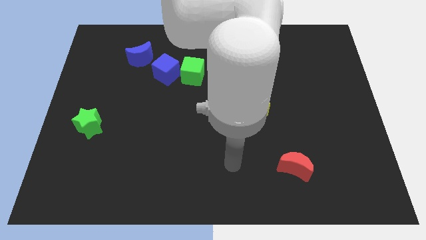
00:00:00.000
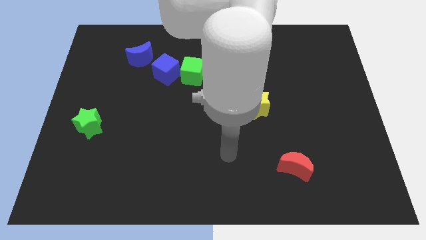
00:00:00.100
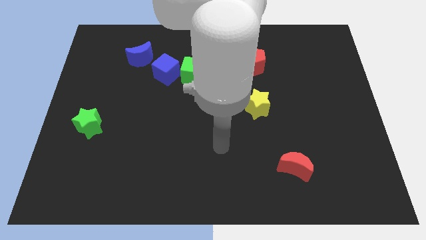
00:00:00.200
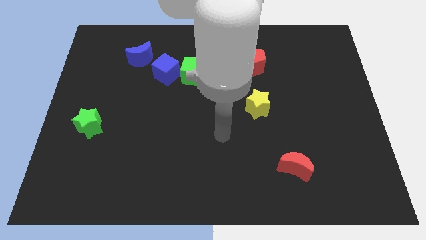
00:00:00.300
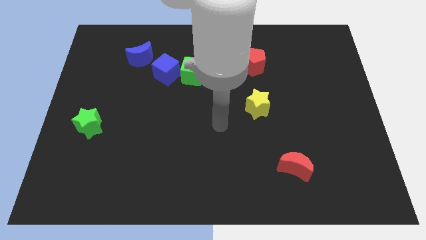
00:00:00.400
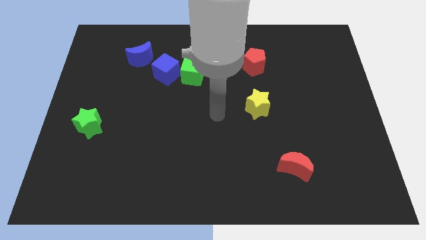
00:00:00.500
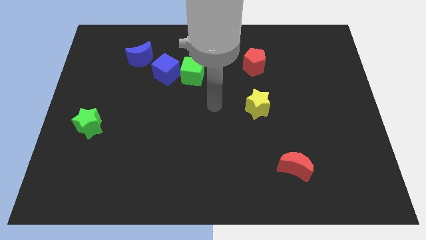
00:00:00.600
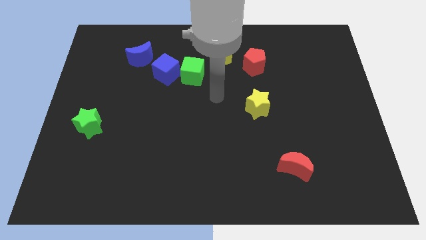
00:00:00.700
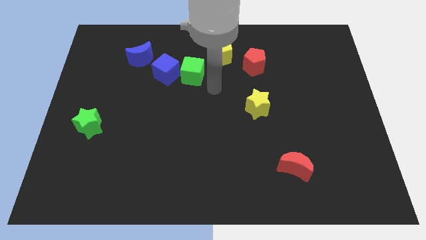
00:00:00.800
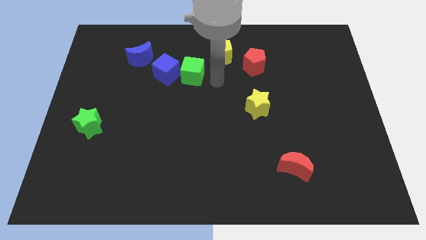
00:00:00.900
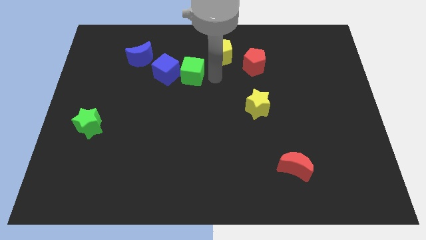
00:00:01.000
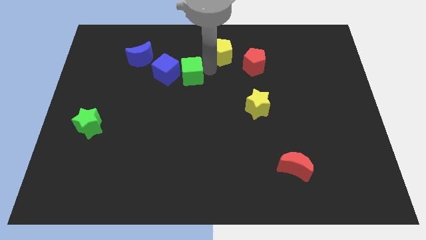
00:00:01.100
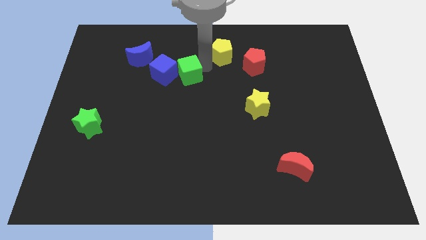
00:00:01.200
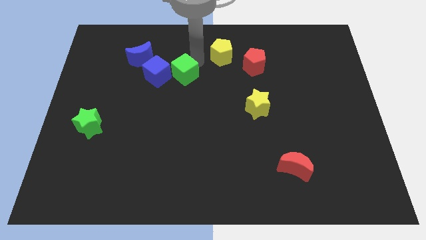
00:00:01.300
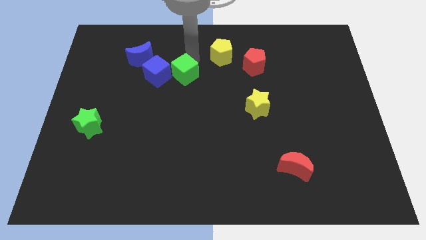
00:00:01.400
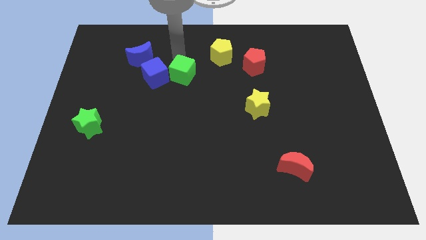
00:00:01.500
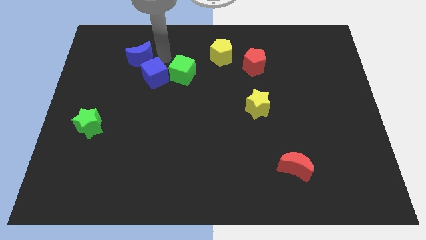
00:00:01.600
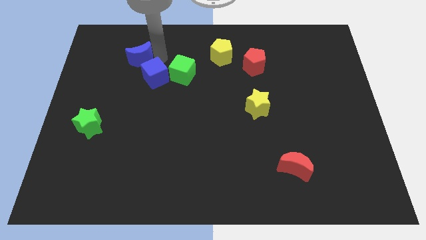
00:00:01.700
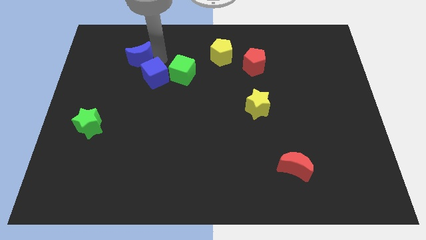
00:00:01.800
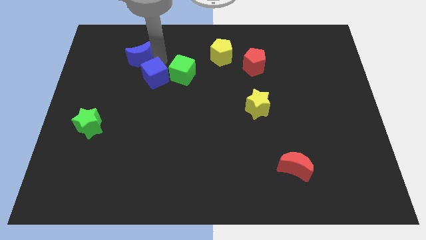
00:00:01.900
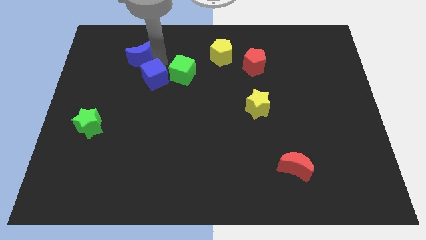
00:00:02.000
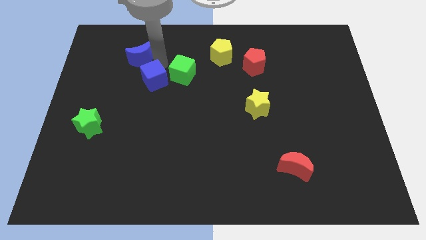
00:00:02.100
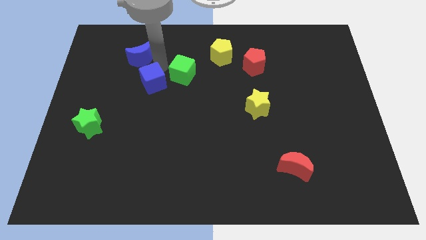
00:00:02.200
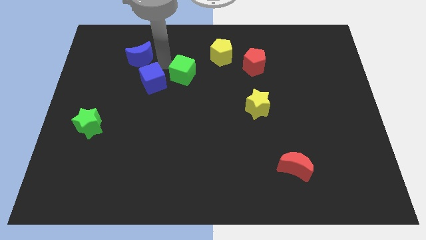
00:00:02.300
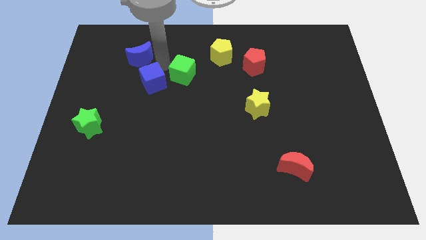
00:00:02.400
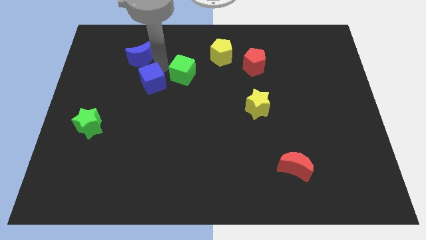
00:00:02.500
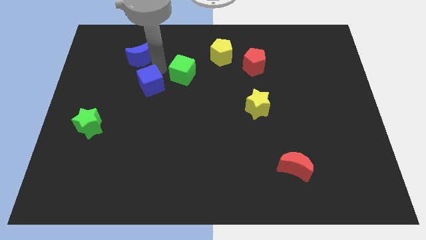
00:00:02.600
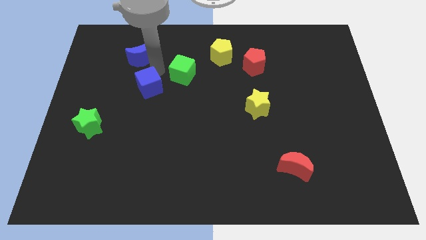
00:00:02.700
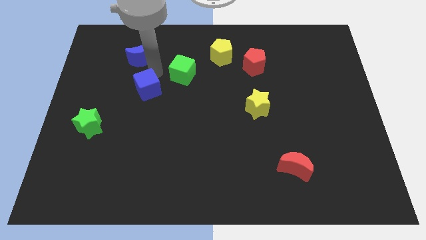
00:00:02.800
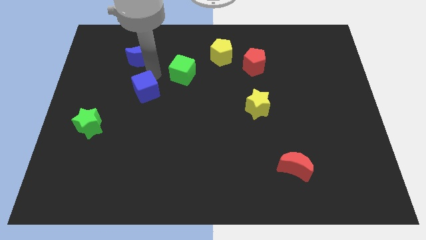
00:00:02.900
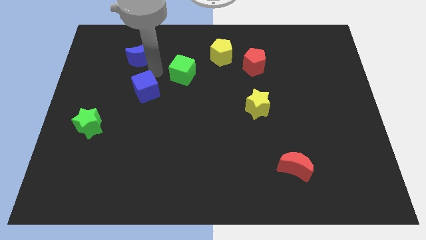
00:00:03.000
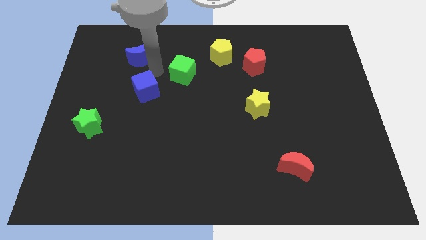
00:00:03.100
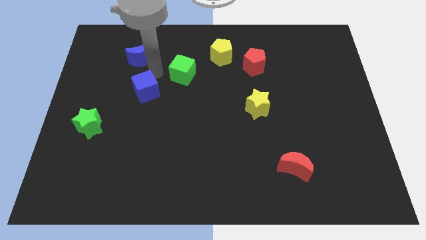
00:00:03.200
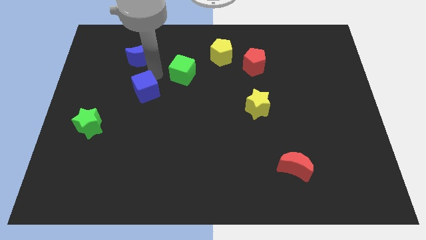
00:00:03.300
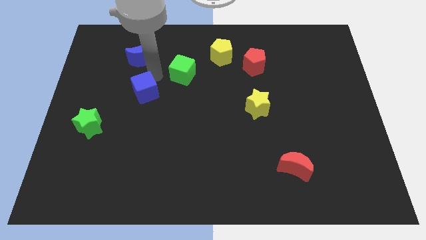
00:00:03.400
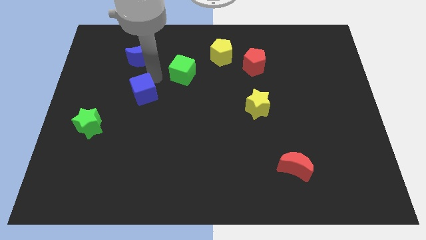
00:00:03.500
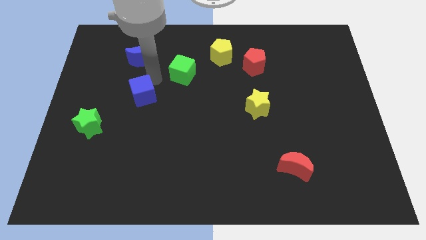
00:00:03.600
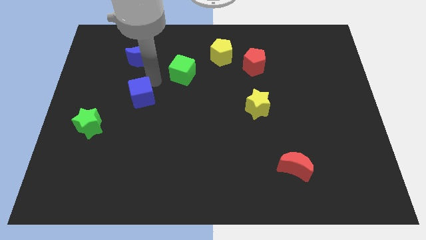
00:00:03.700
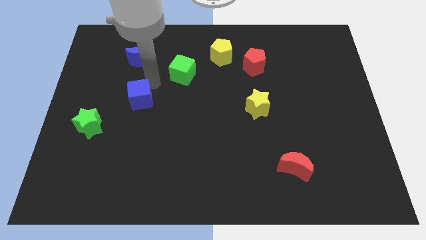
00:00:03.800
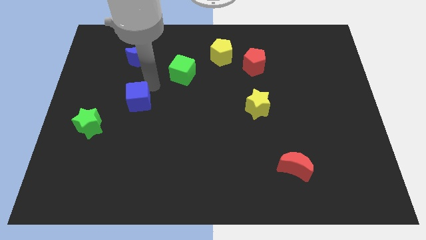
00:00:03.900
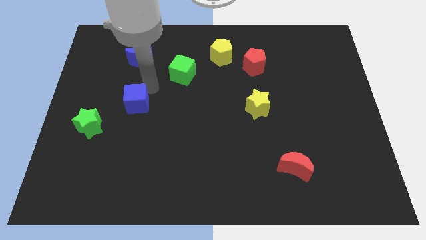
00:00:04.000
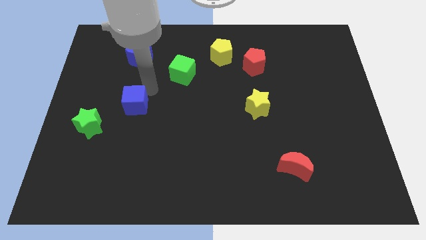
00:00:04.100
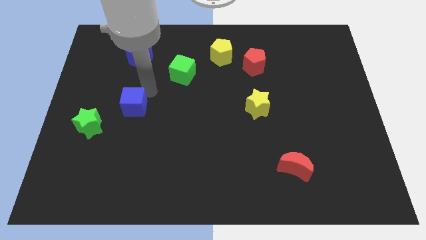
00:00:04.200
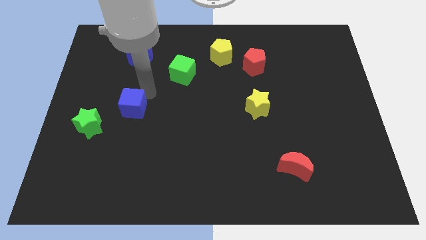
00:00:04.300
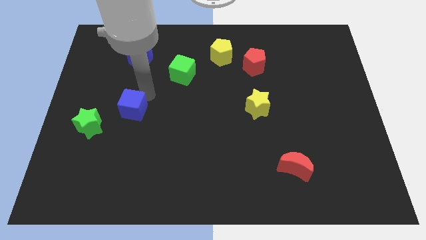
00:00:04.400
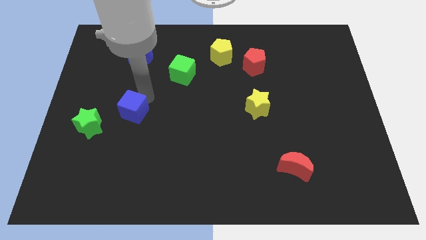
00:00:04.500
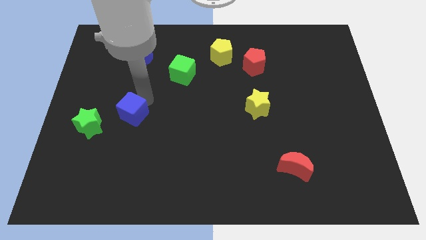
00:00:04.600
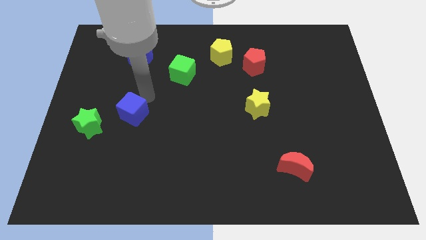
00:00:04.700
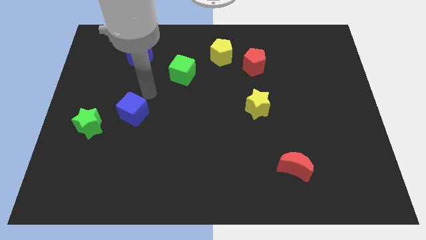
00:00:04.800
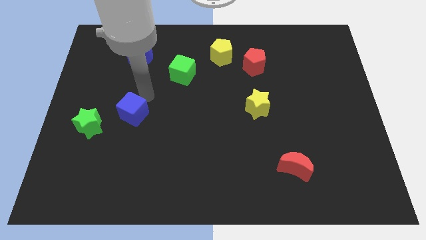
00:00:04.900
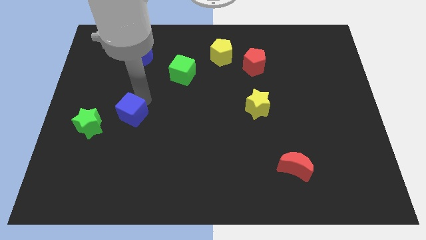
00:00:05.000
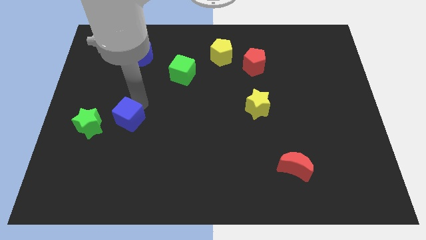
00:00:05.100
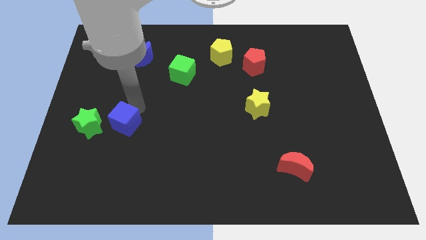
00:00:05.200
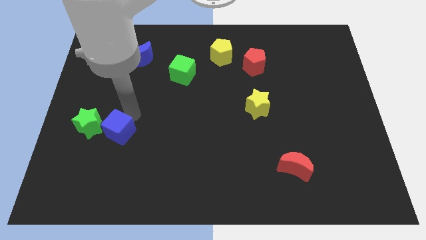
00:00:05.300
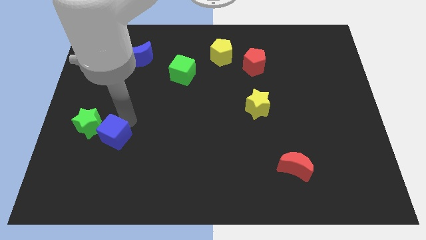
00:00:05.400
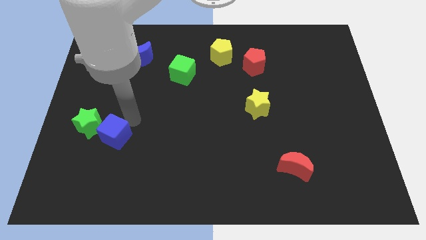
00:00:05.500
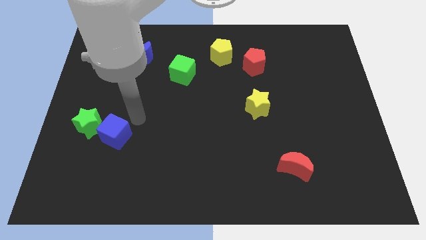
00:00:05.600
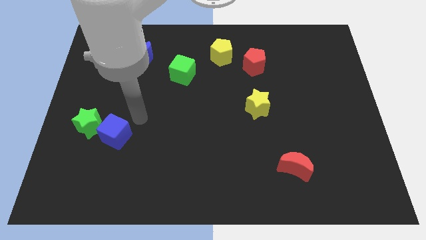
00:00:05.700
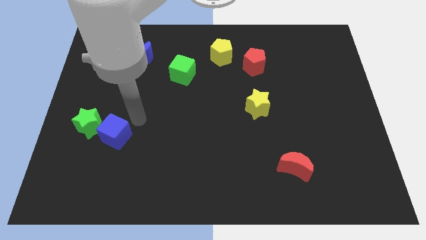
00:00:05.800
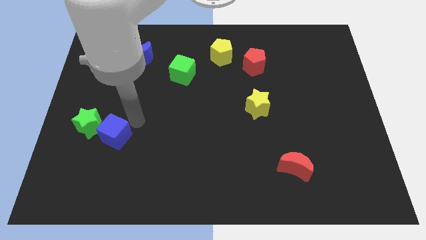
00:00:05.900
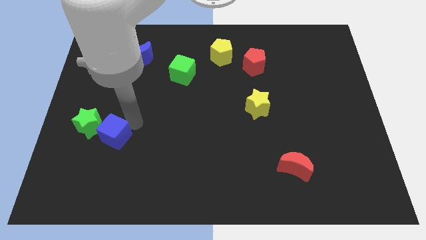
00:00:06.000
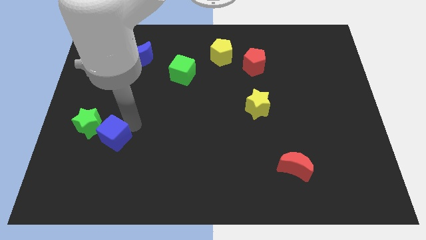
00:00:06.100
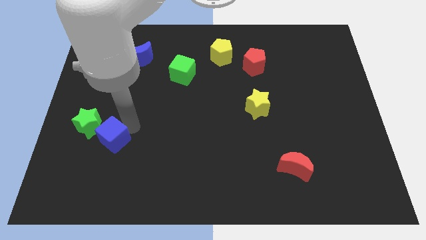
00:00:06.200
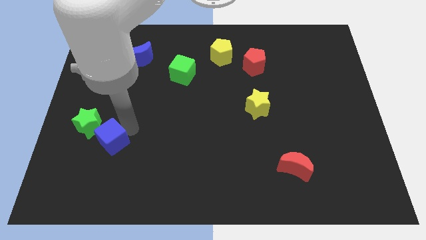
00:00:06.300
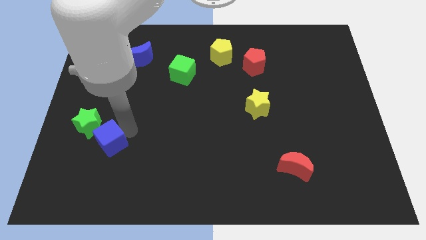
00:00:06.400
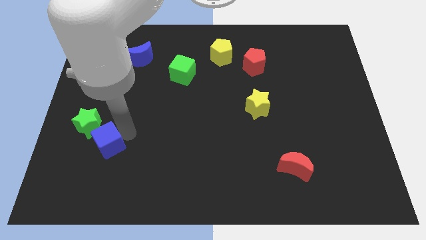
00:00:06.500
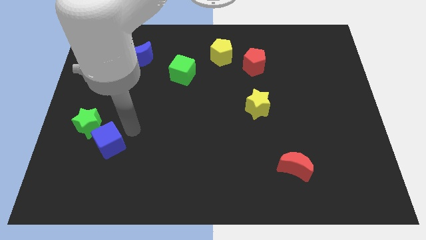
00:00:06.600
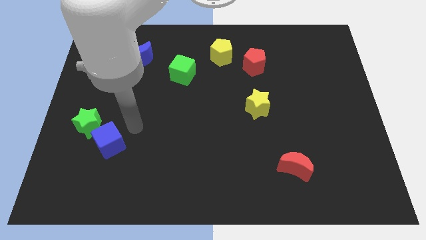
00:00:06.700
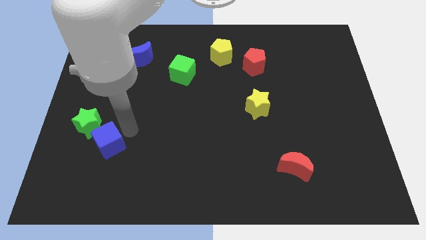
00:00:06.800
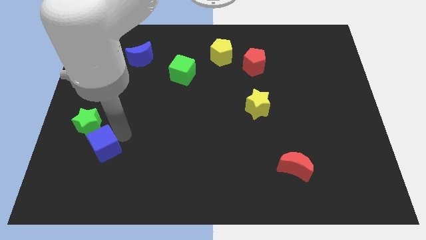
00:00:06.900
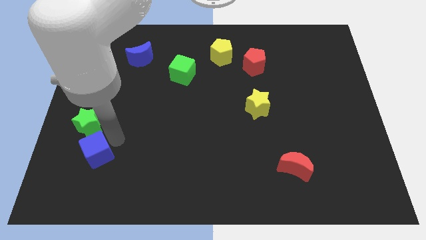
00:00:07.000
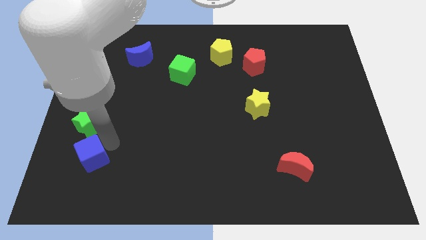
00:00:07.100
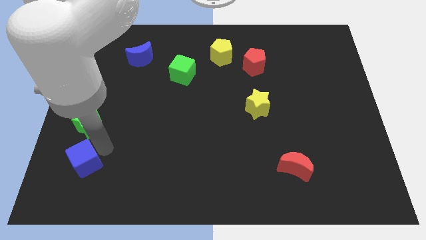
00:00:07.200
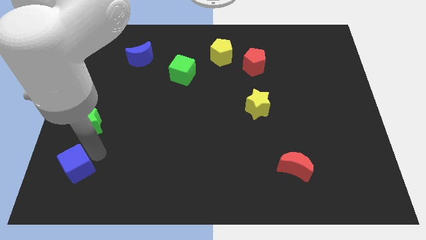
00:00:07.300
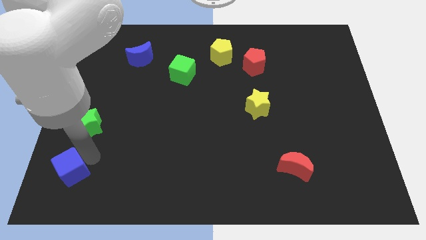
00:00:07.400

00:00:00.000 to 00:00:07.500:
slide the blue cube to the bottom left
